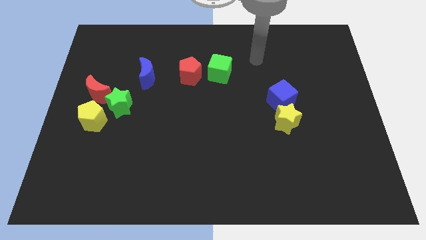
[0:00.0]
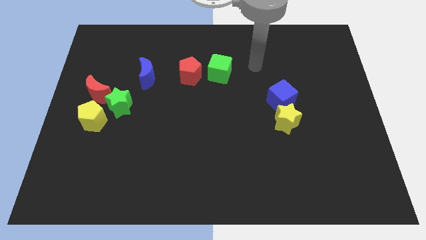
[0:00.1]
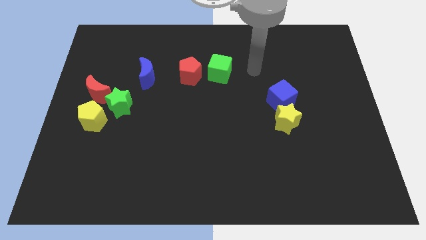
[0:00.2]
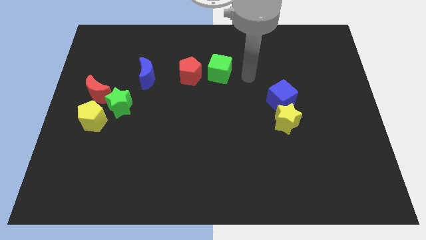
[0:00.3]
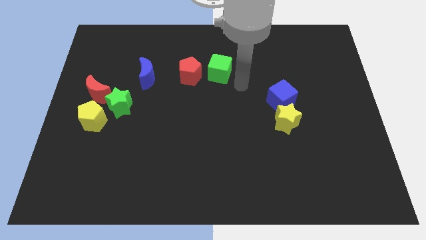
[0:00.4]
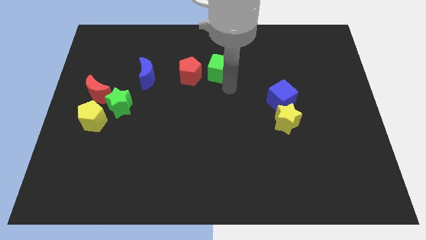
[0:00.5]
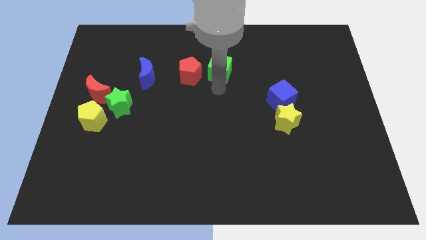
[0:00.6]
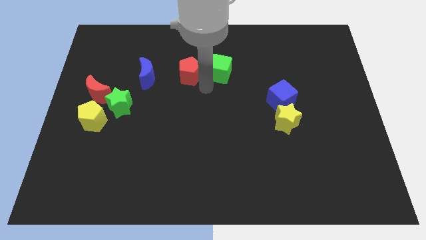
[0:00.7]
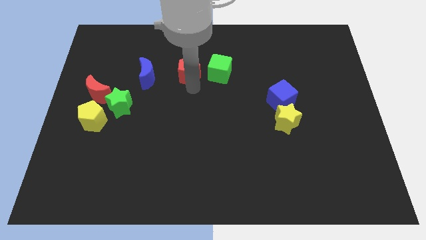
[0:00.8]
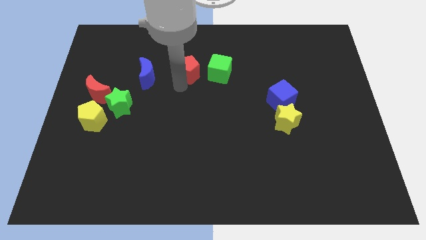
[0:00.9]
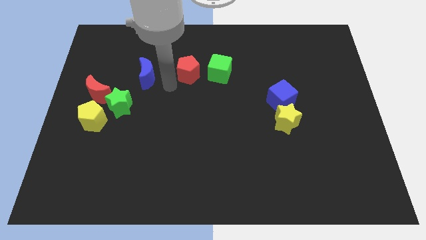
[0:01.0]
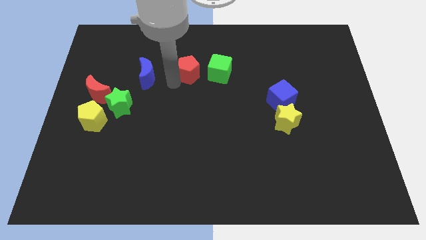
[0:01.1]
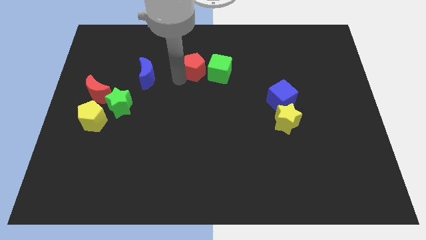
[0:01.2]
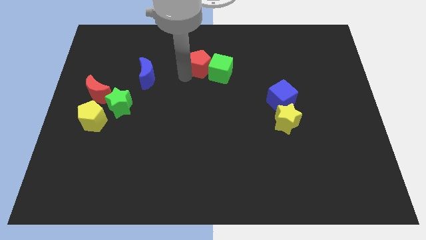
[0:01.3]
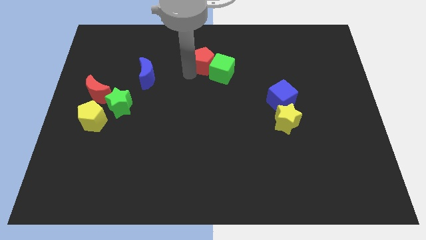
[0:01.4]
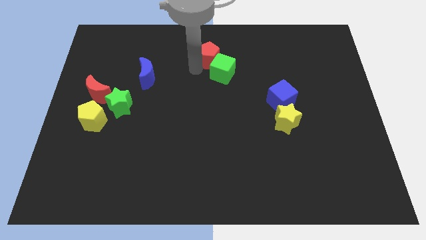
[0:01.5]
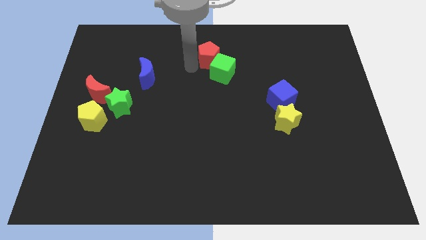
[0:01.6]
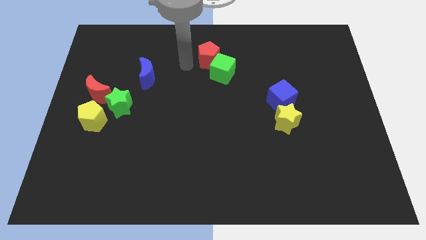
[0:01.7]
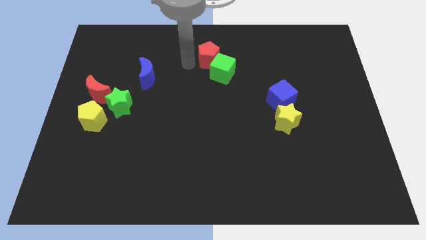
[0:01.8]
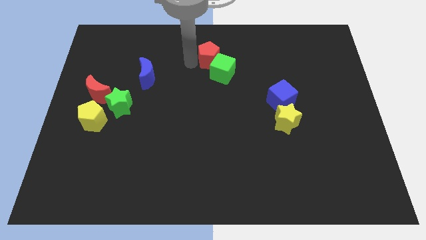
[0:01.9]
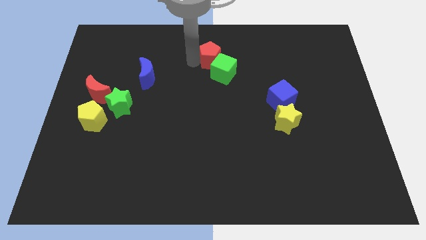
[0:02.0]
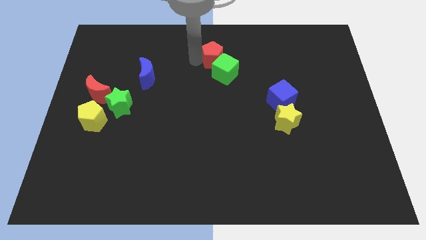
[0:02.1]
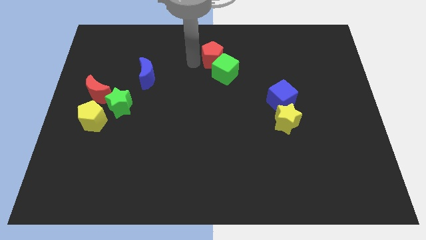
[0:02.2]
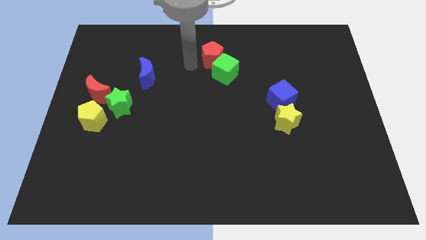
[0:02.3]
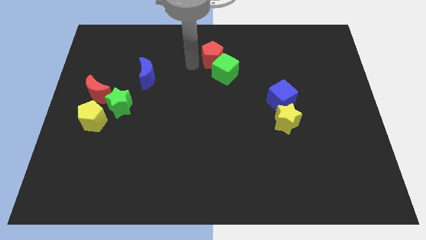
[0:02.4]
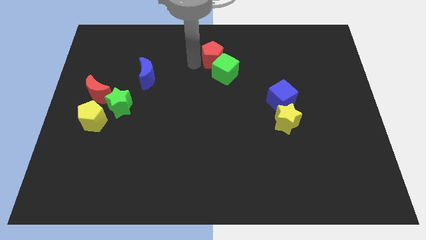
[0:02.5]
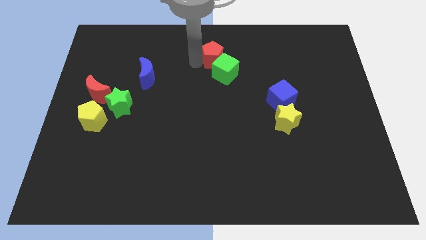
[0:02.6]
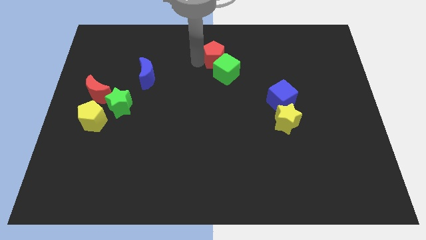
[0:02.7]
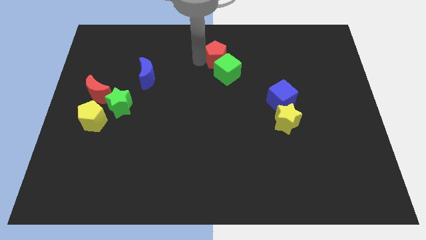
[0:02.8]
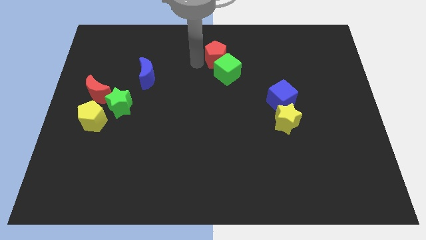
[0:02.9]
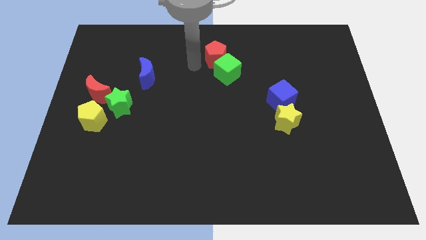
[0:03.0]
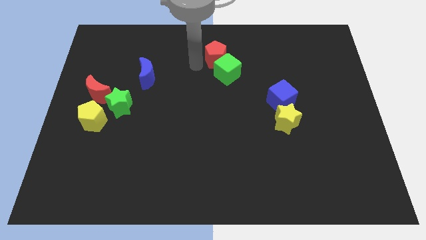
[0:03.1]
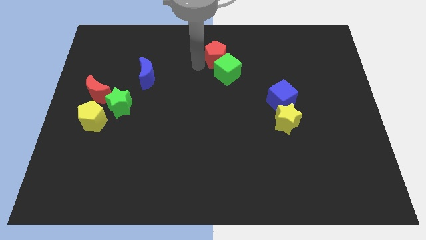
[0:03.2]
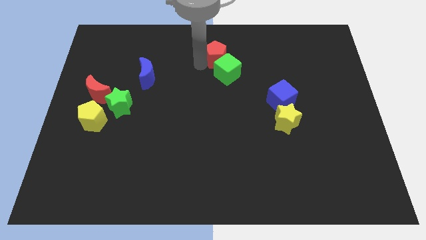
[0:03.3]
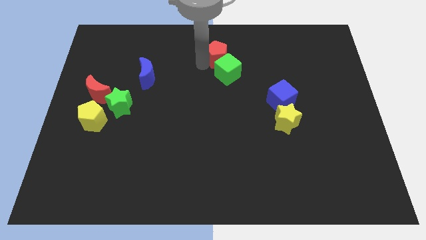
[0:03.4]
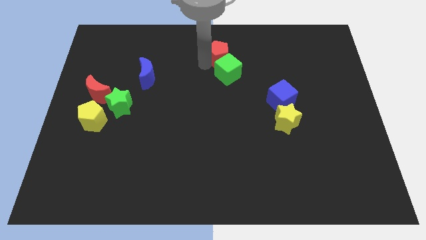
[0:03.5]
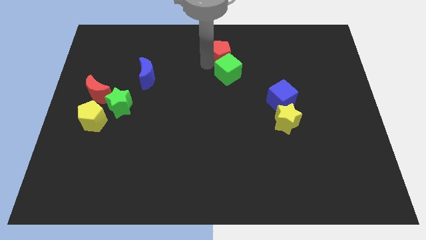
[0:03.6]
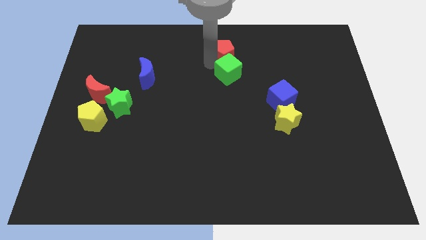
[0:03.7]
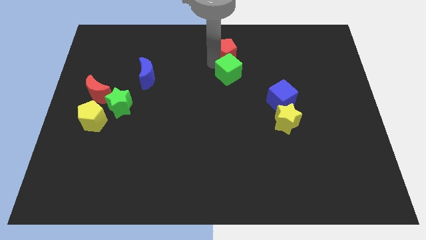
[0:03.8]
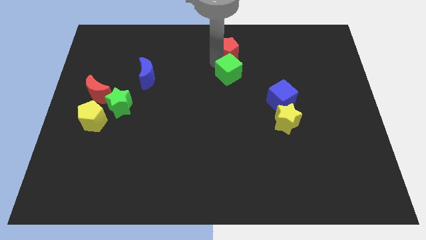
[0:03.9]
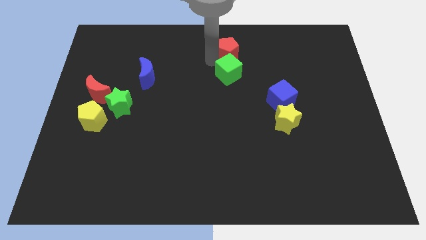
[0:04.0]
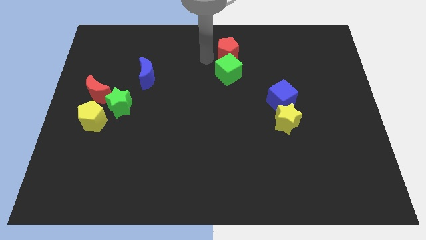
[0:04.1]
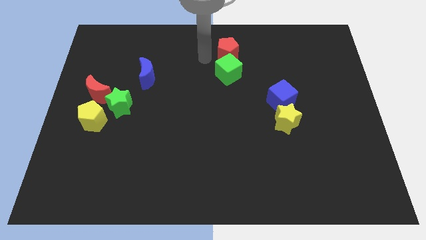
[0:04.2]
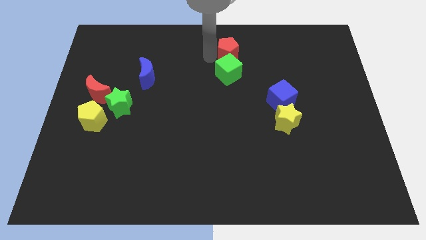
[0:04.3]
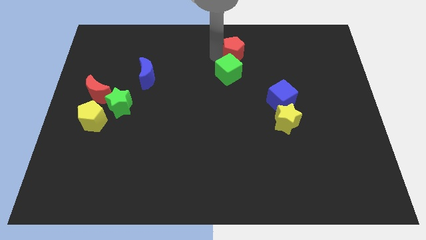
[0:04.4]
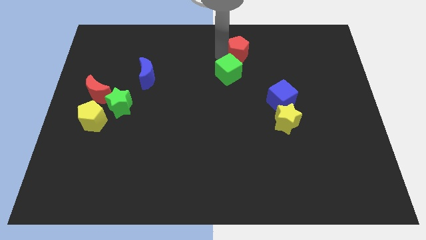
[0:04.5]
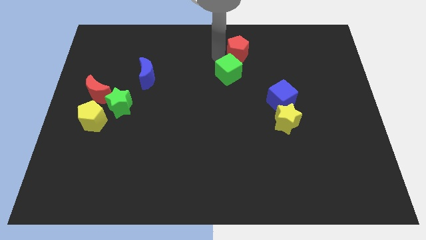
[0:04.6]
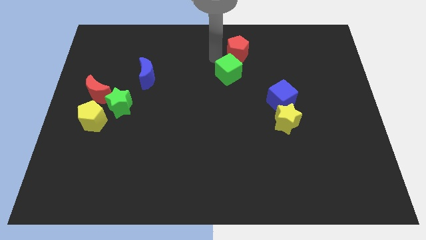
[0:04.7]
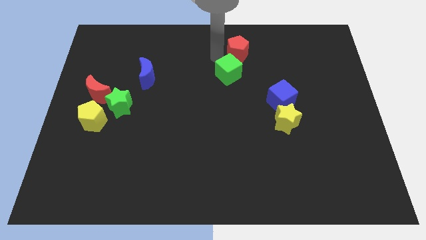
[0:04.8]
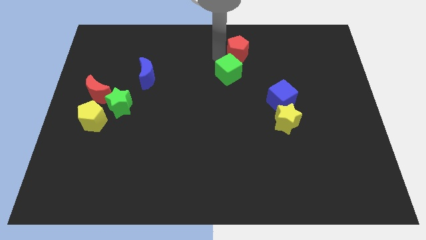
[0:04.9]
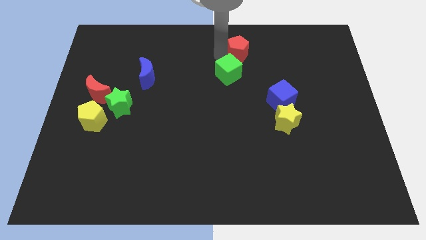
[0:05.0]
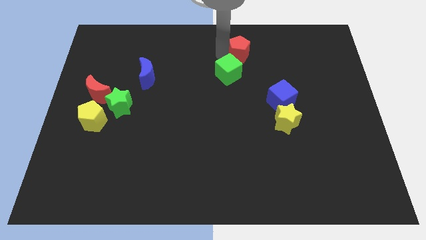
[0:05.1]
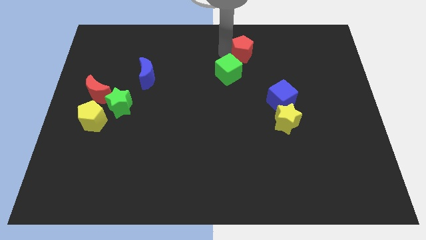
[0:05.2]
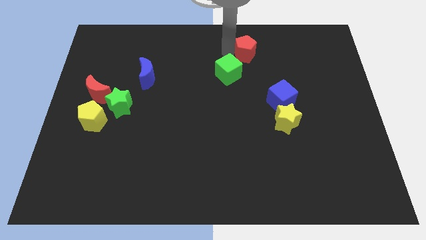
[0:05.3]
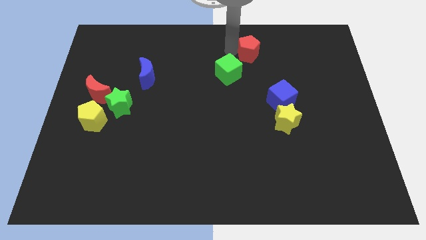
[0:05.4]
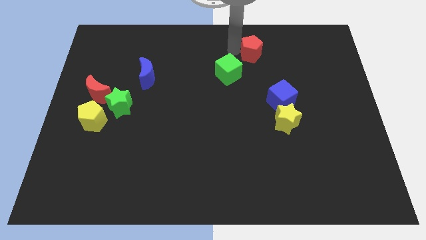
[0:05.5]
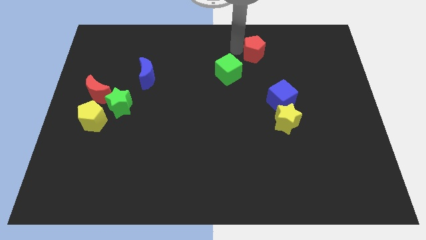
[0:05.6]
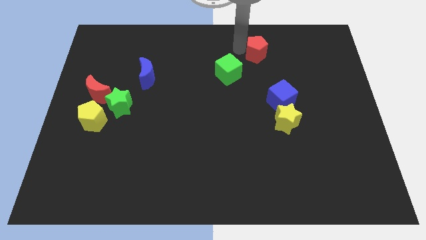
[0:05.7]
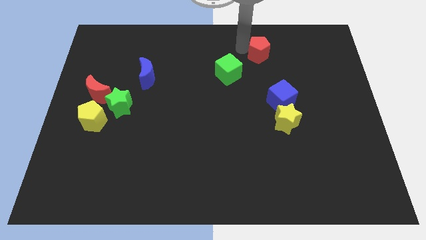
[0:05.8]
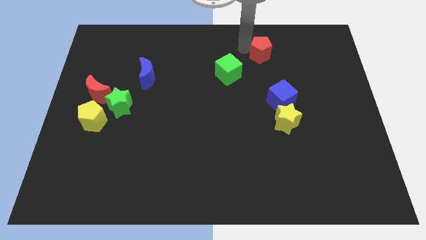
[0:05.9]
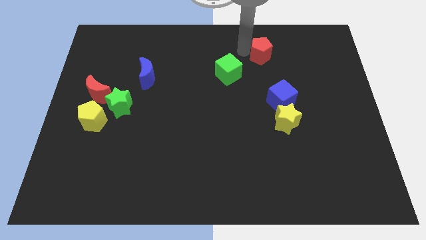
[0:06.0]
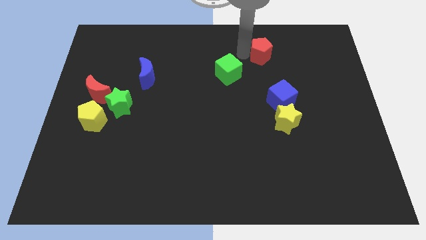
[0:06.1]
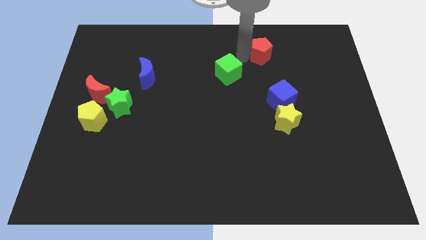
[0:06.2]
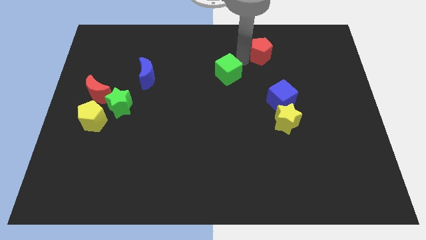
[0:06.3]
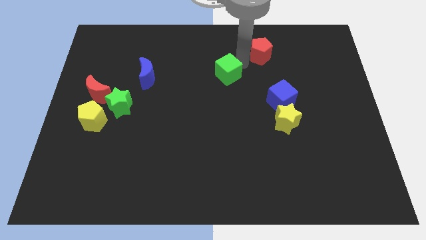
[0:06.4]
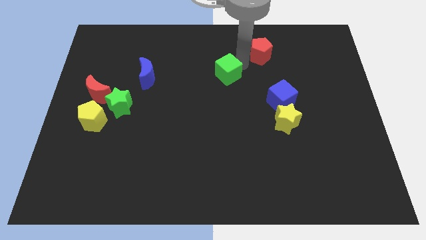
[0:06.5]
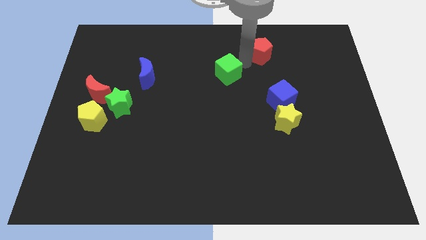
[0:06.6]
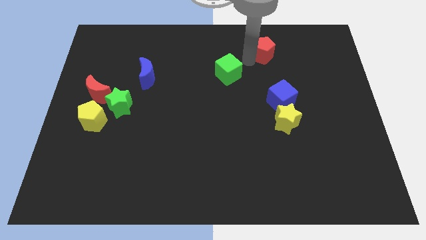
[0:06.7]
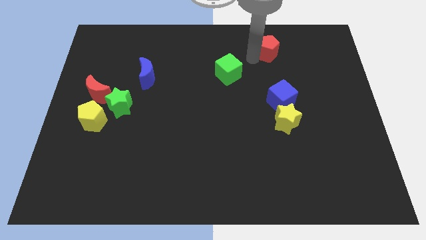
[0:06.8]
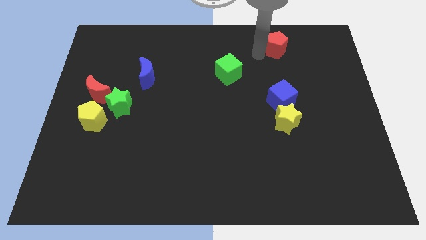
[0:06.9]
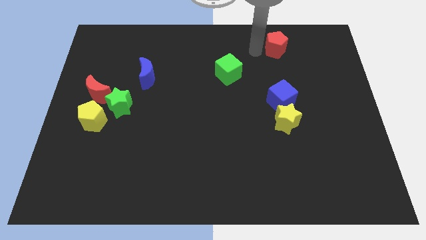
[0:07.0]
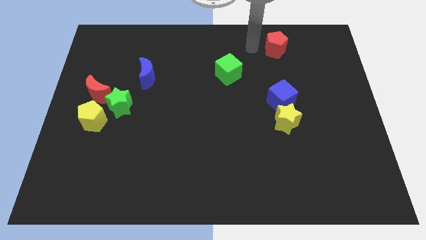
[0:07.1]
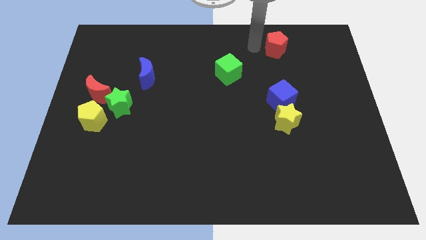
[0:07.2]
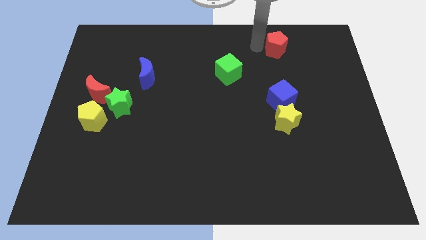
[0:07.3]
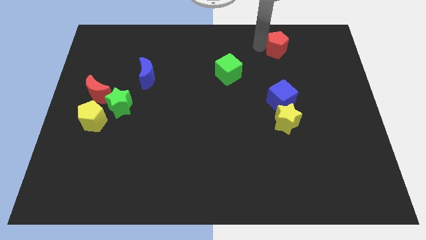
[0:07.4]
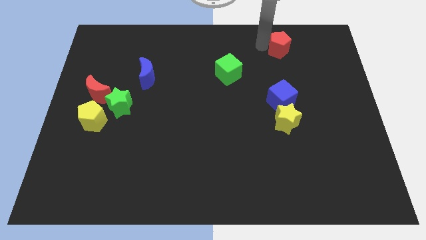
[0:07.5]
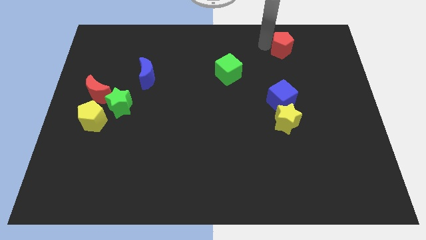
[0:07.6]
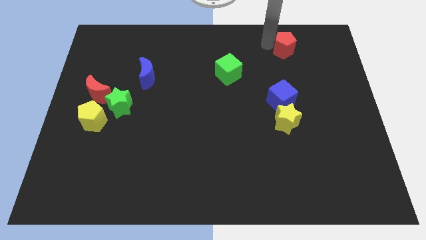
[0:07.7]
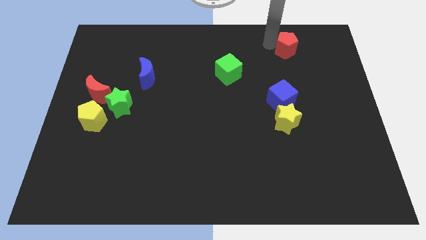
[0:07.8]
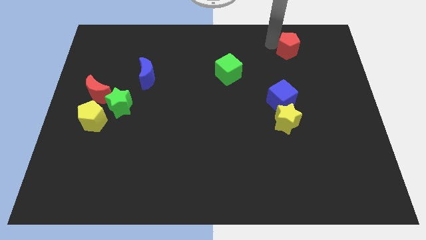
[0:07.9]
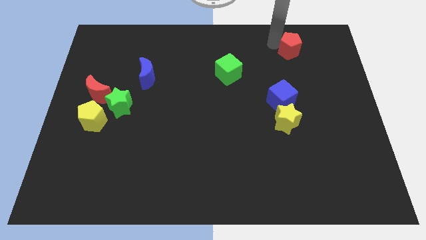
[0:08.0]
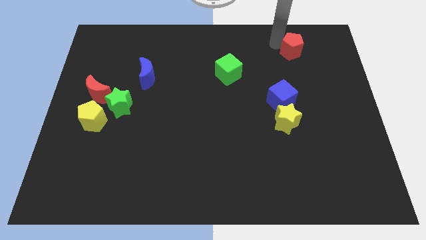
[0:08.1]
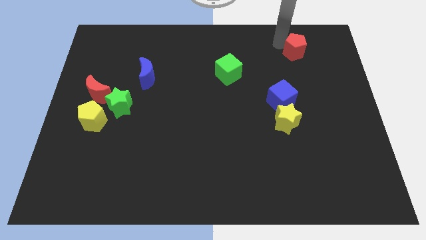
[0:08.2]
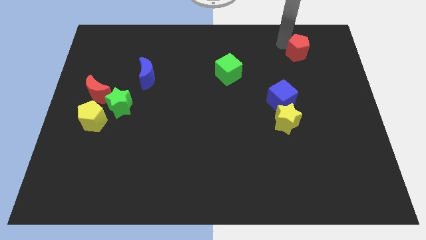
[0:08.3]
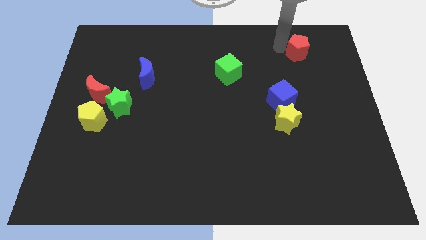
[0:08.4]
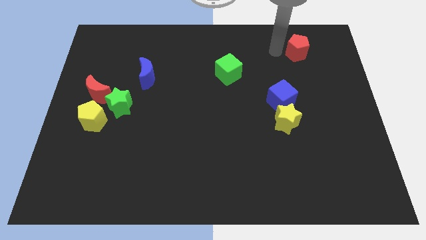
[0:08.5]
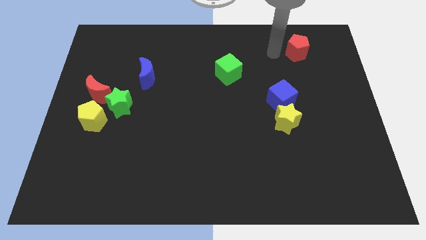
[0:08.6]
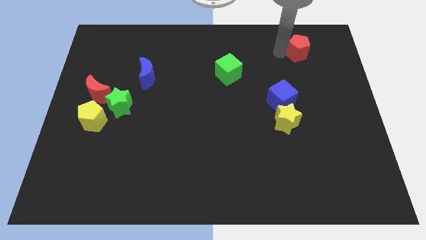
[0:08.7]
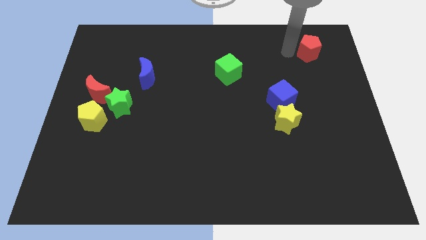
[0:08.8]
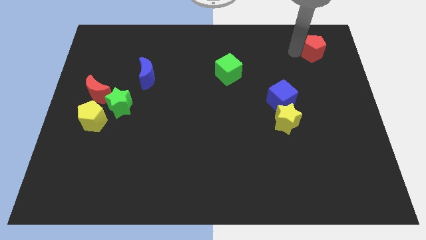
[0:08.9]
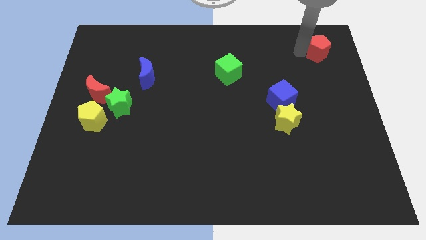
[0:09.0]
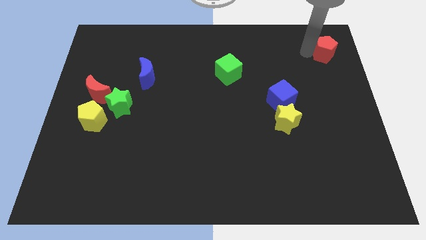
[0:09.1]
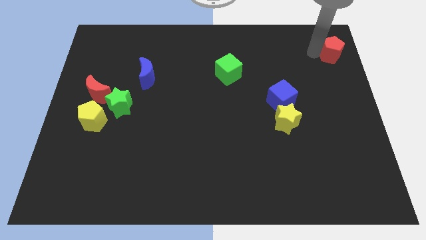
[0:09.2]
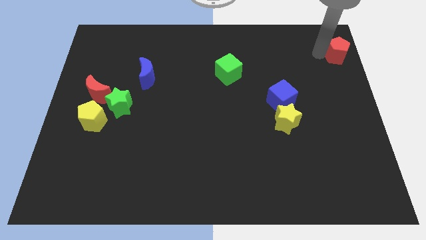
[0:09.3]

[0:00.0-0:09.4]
put the red pentagon to the top right
